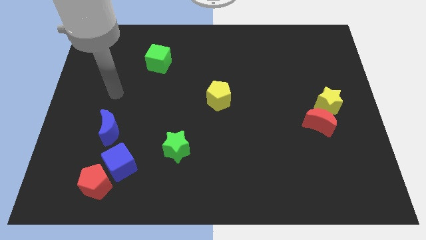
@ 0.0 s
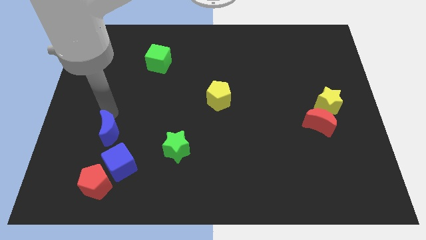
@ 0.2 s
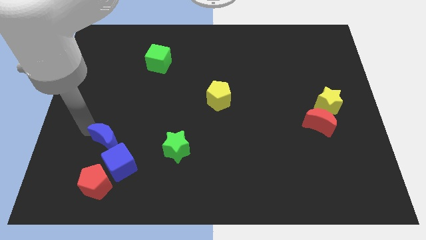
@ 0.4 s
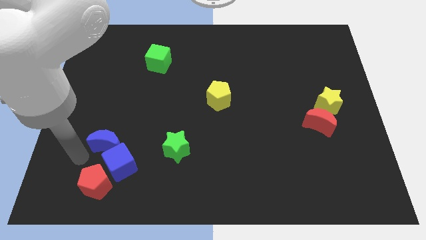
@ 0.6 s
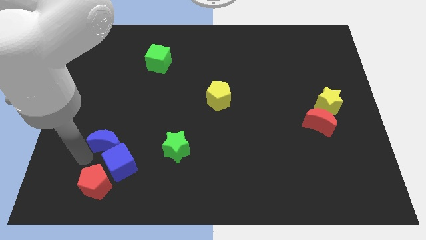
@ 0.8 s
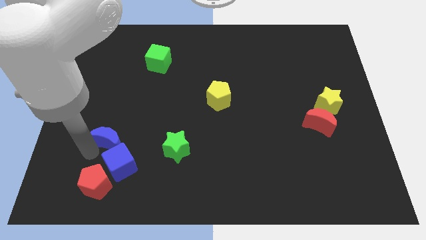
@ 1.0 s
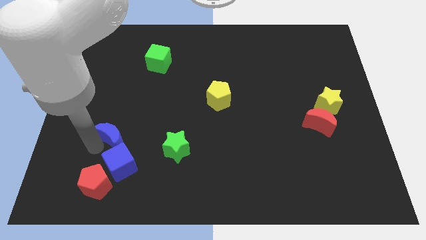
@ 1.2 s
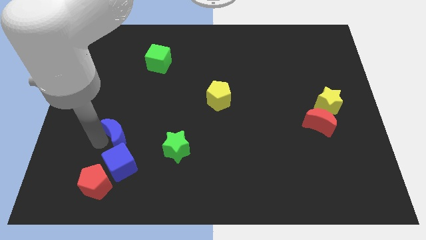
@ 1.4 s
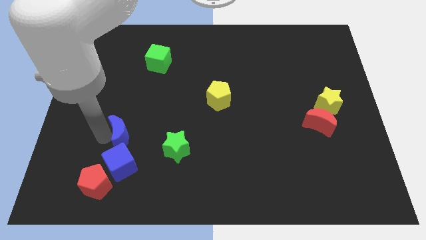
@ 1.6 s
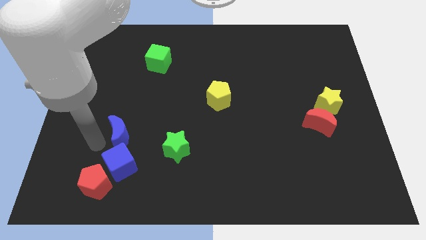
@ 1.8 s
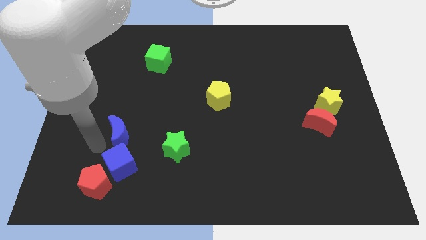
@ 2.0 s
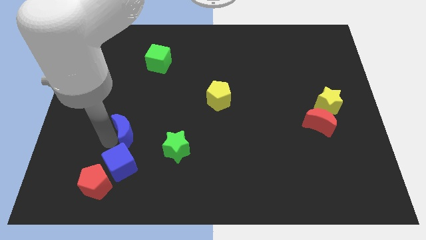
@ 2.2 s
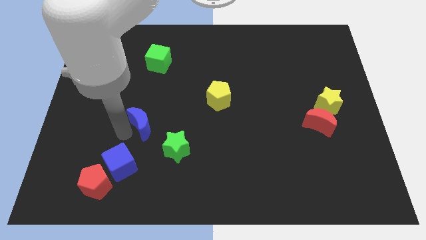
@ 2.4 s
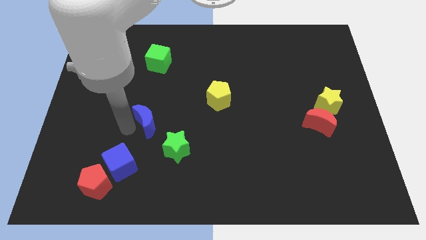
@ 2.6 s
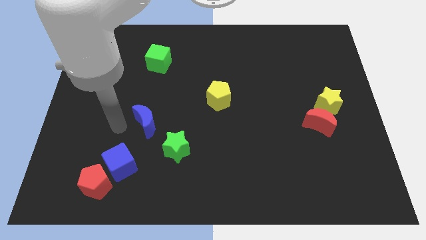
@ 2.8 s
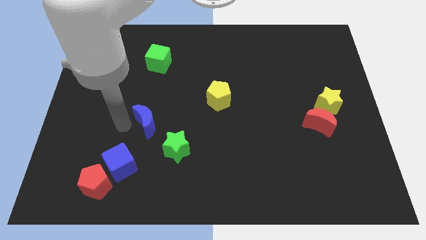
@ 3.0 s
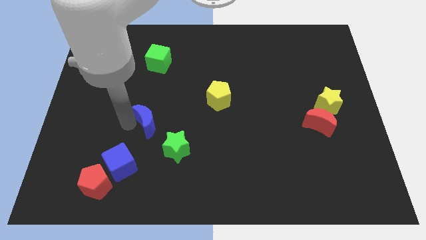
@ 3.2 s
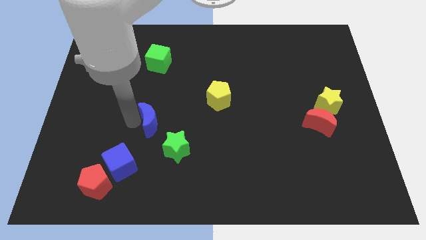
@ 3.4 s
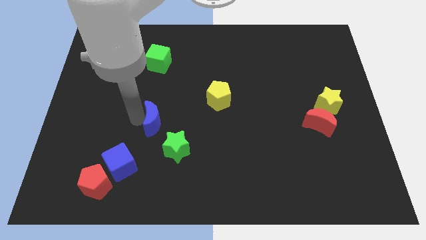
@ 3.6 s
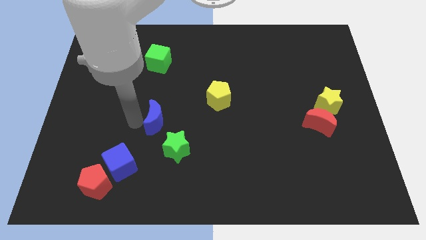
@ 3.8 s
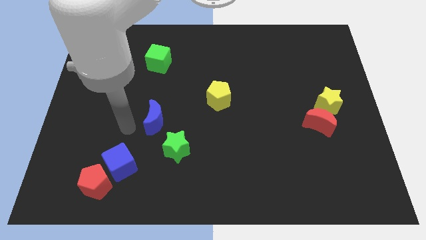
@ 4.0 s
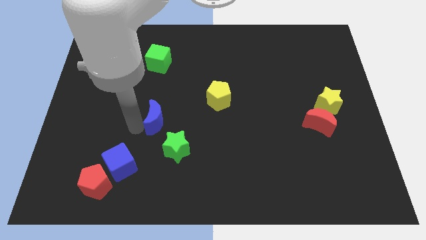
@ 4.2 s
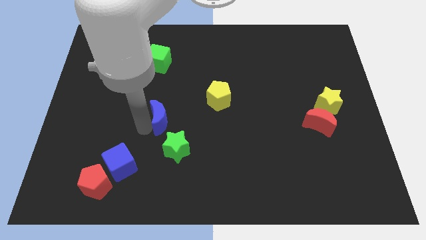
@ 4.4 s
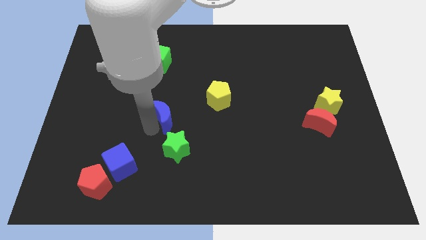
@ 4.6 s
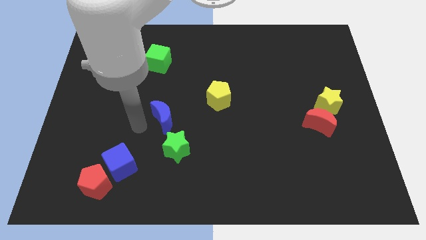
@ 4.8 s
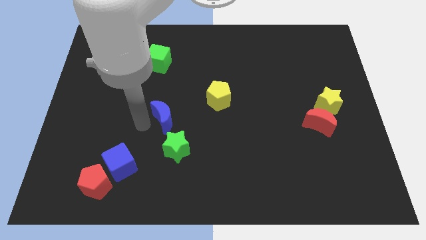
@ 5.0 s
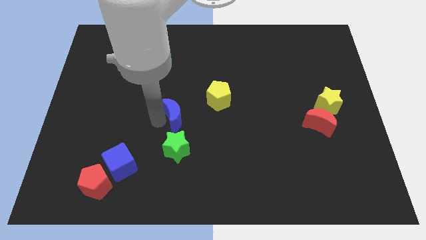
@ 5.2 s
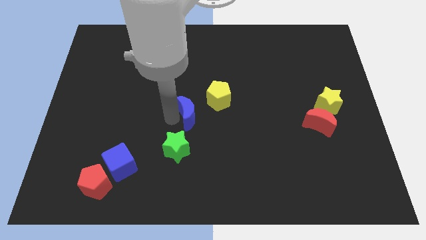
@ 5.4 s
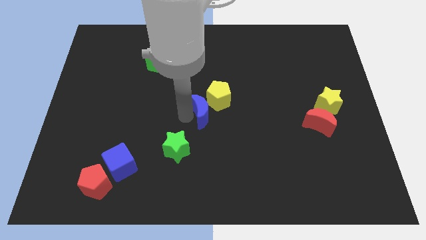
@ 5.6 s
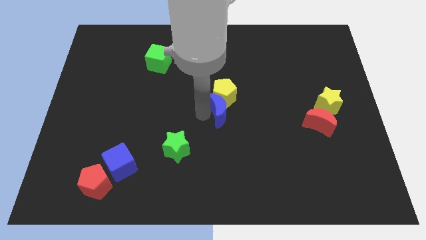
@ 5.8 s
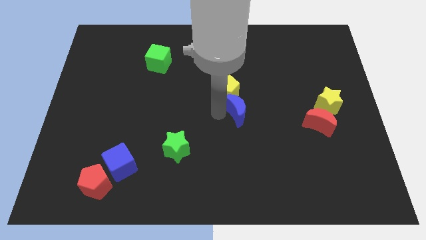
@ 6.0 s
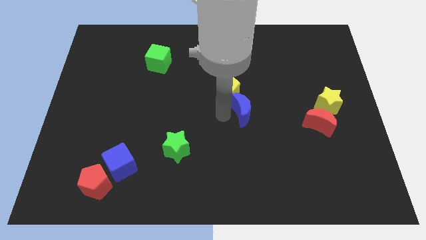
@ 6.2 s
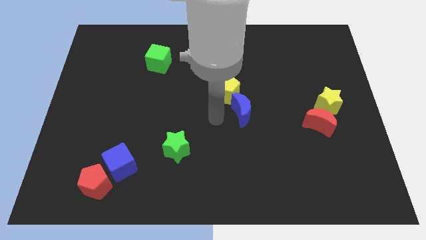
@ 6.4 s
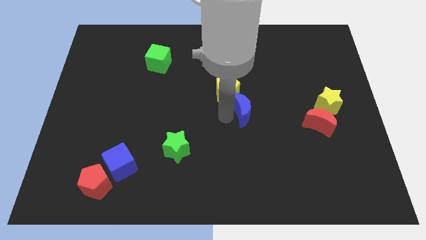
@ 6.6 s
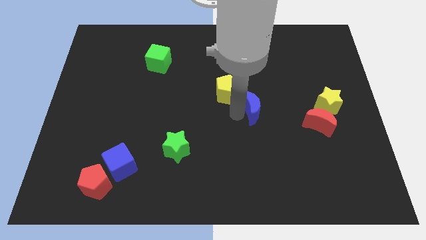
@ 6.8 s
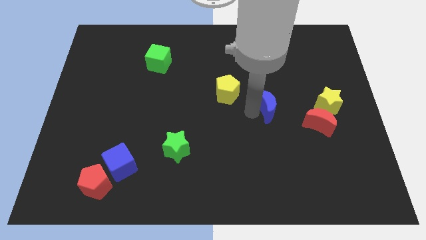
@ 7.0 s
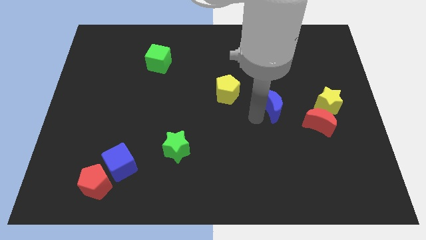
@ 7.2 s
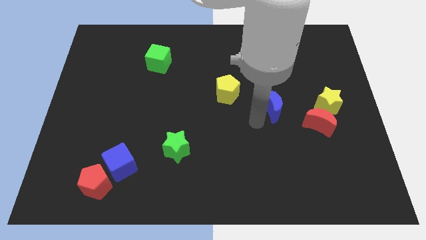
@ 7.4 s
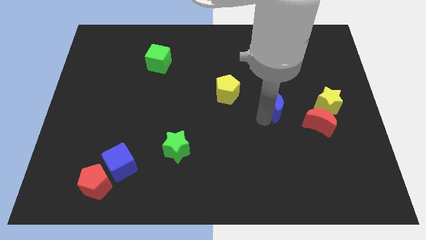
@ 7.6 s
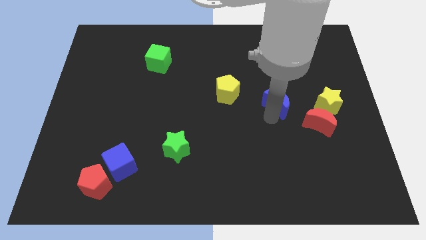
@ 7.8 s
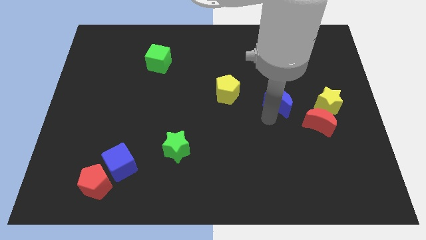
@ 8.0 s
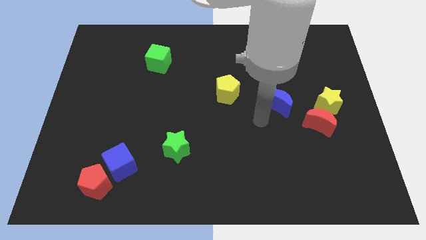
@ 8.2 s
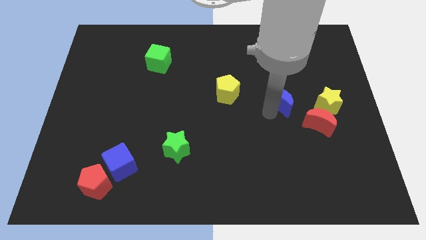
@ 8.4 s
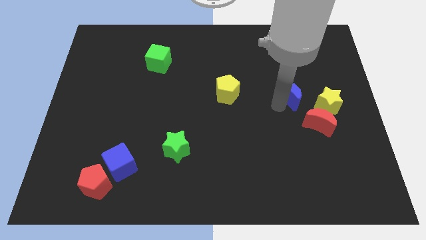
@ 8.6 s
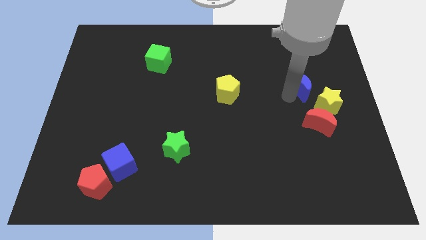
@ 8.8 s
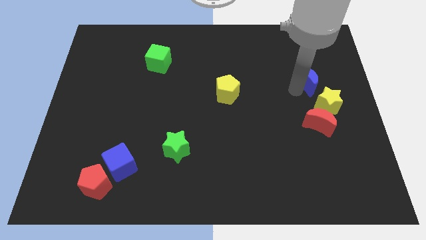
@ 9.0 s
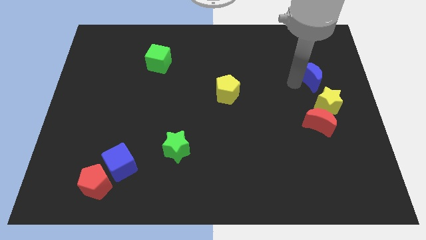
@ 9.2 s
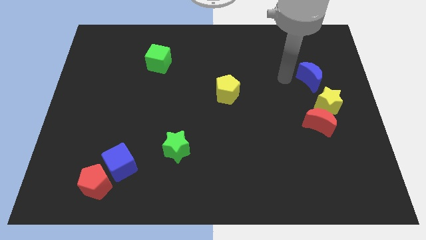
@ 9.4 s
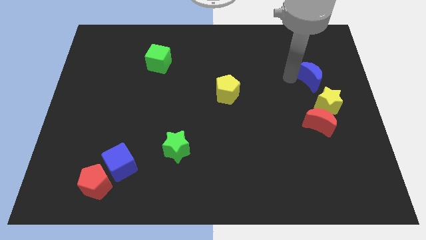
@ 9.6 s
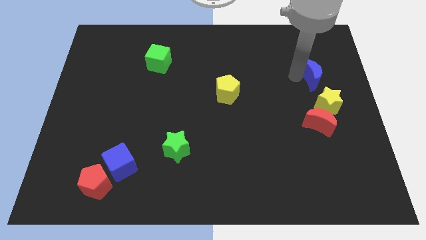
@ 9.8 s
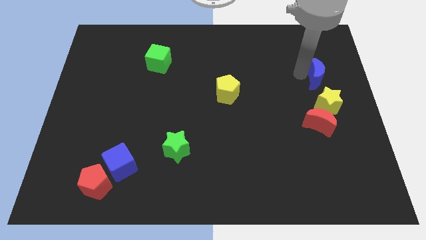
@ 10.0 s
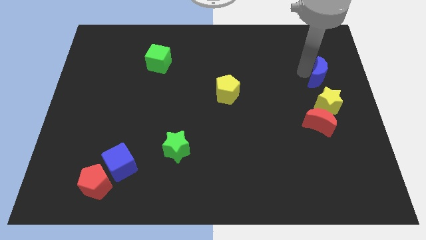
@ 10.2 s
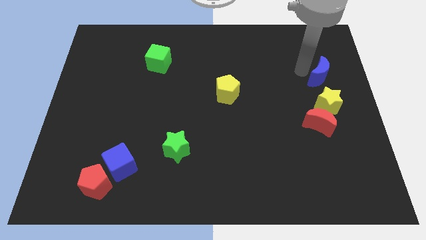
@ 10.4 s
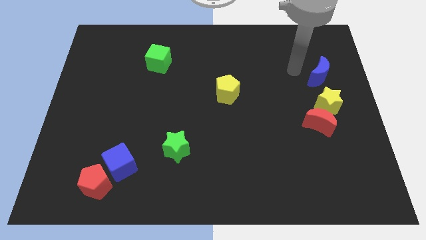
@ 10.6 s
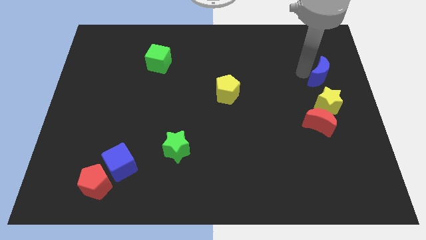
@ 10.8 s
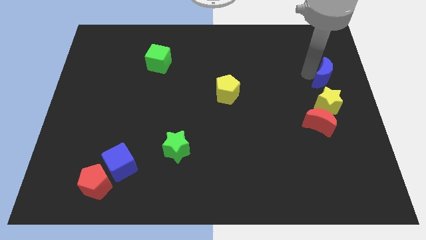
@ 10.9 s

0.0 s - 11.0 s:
push the blue moon to the right side of the board
